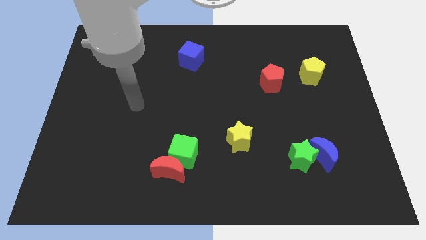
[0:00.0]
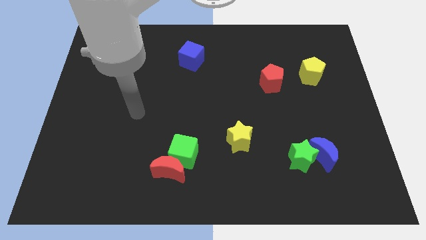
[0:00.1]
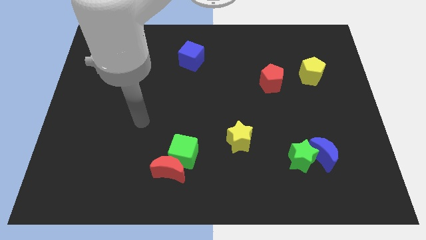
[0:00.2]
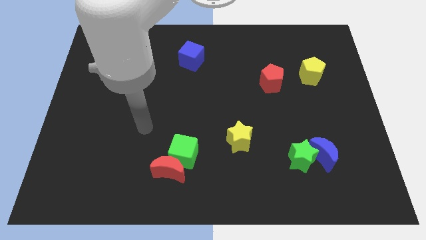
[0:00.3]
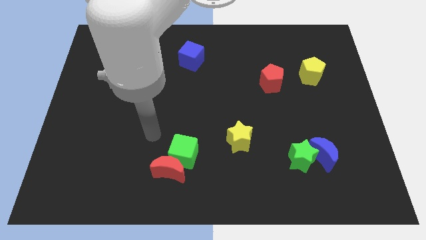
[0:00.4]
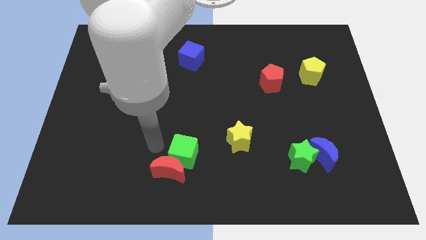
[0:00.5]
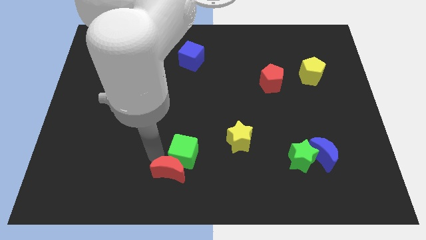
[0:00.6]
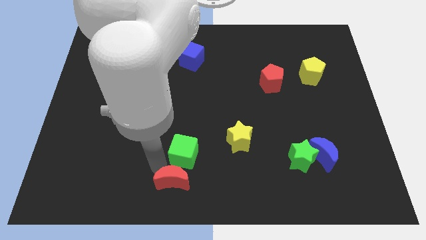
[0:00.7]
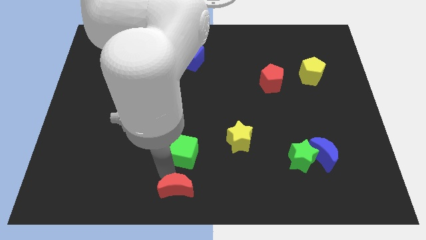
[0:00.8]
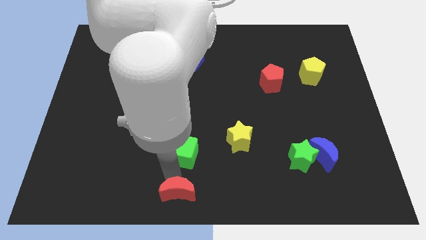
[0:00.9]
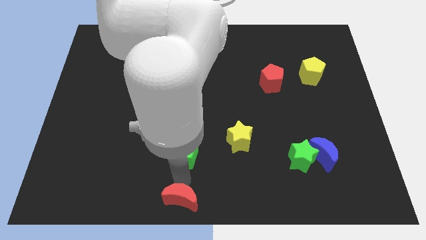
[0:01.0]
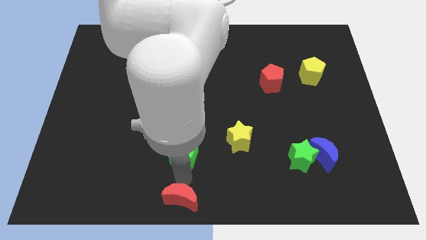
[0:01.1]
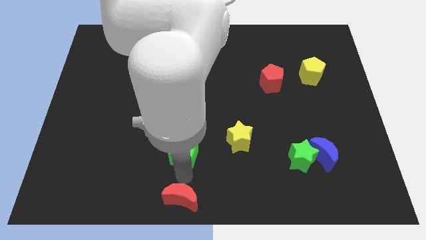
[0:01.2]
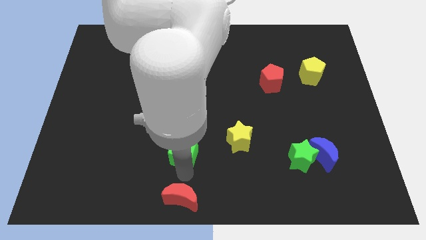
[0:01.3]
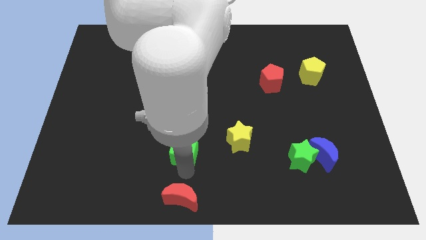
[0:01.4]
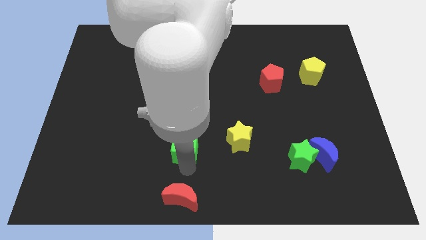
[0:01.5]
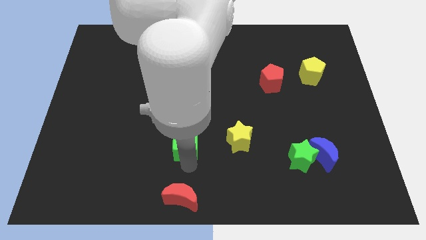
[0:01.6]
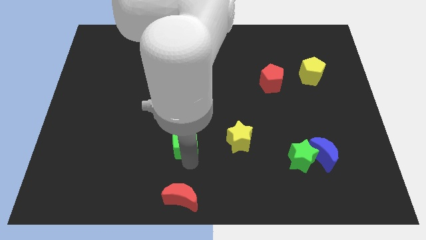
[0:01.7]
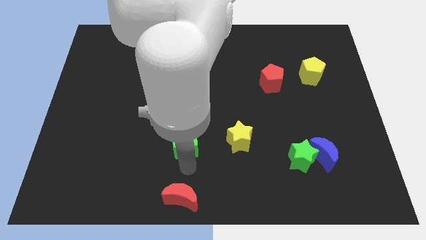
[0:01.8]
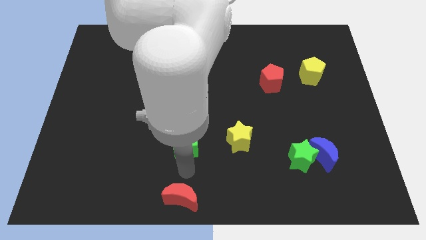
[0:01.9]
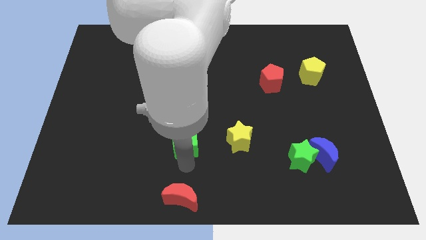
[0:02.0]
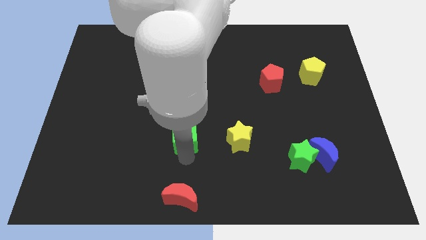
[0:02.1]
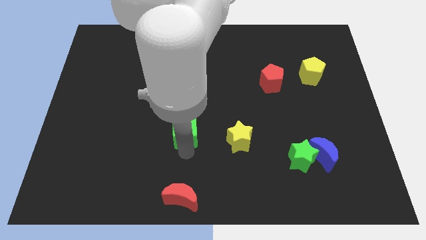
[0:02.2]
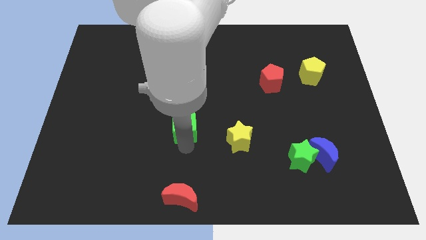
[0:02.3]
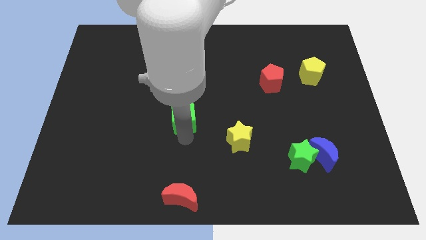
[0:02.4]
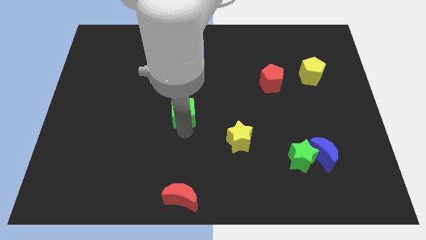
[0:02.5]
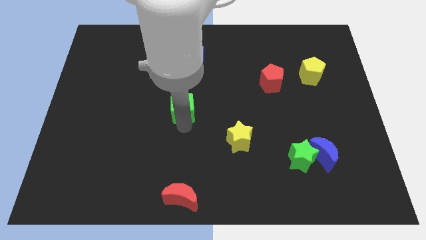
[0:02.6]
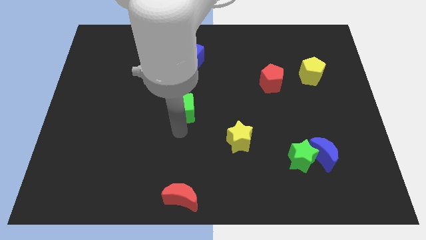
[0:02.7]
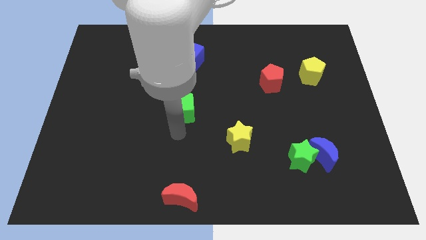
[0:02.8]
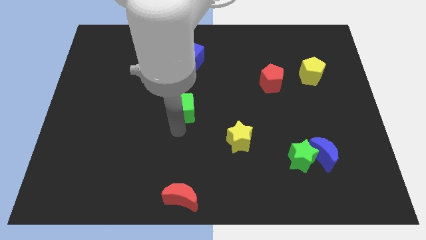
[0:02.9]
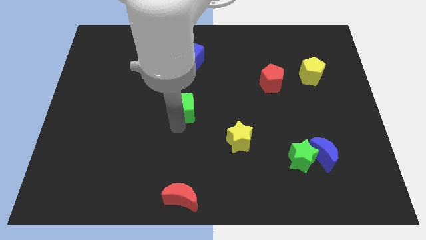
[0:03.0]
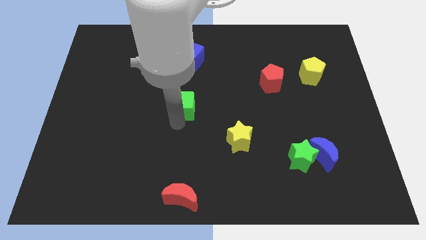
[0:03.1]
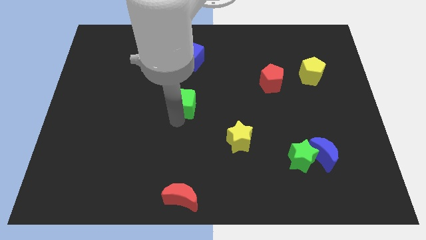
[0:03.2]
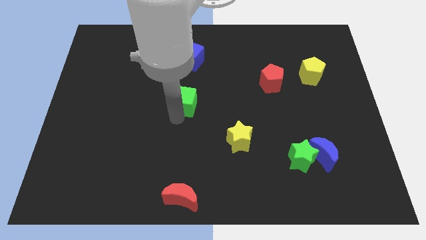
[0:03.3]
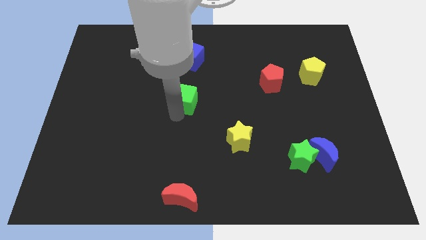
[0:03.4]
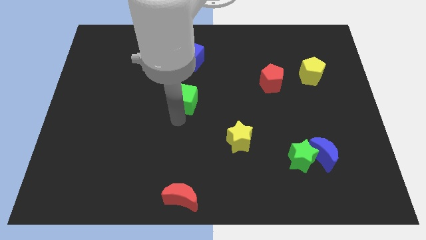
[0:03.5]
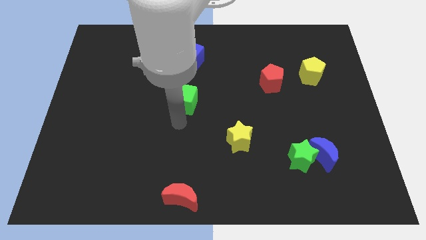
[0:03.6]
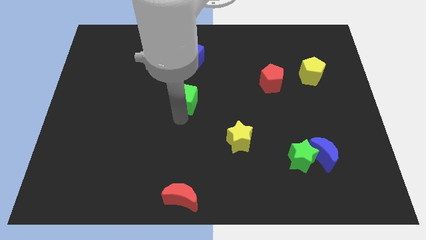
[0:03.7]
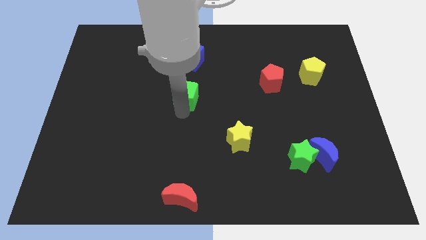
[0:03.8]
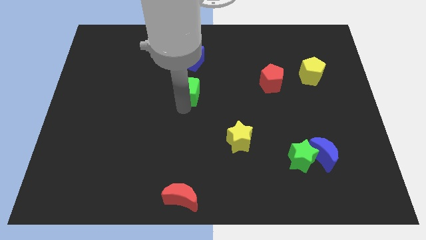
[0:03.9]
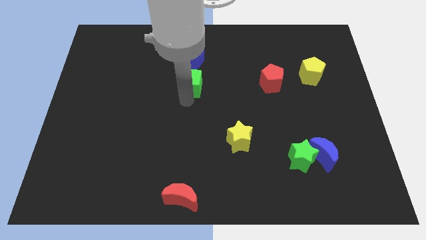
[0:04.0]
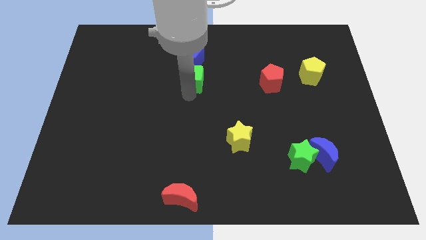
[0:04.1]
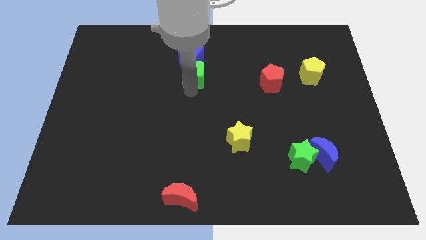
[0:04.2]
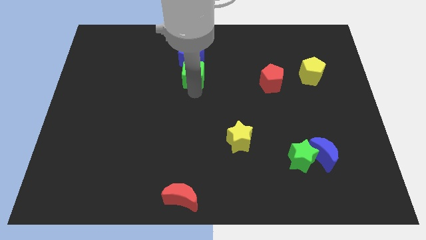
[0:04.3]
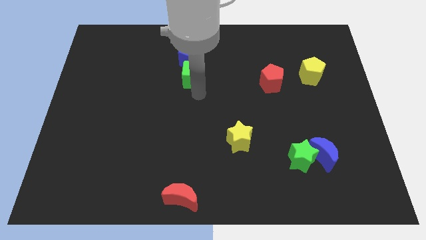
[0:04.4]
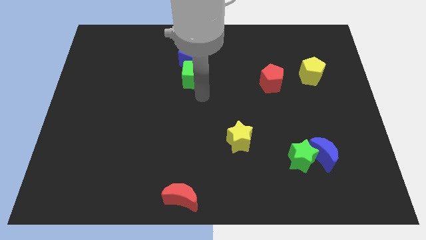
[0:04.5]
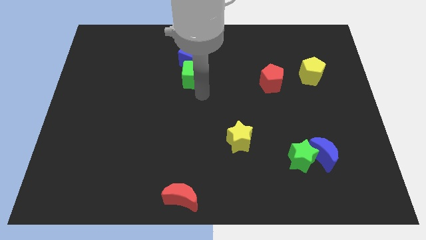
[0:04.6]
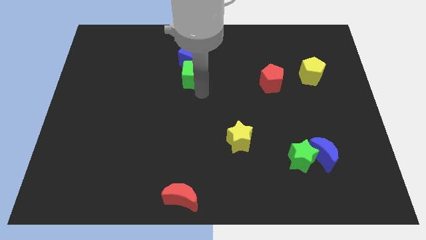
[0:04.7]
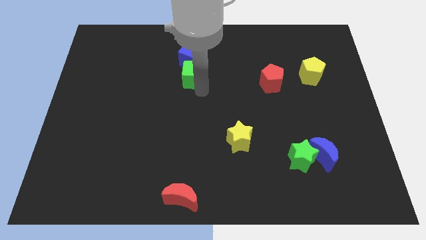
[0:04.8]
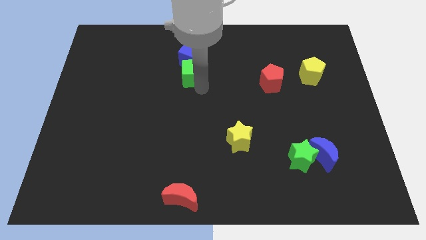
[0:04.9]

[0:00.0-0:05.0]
put the green cube close to the blue cube

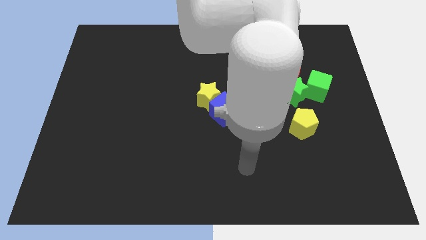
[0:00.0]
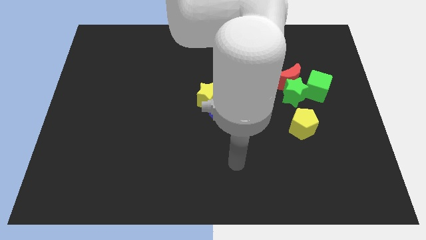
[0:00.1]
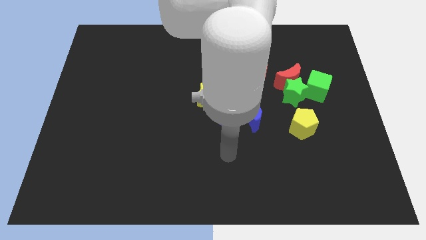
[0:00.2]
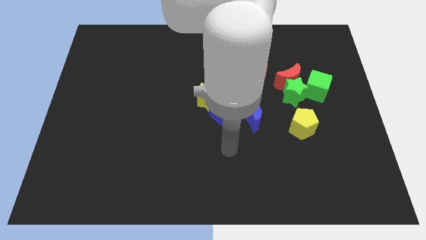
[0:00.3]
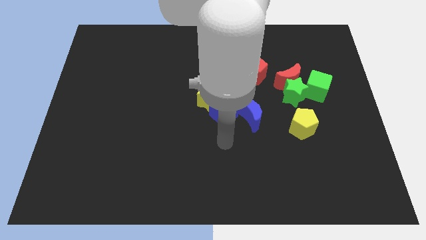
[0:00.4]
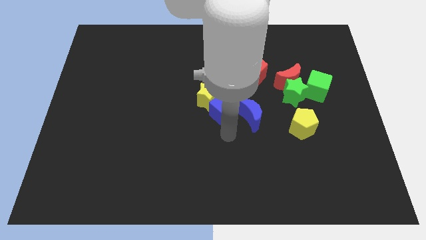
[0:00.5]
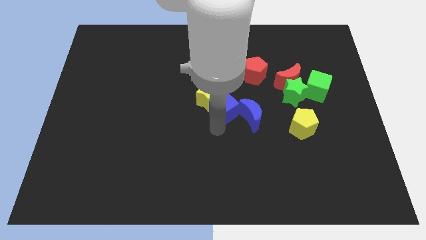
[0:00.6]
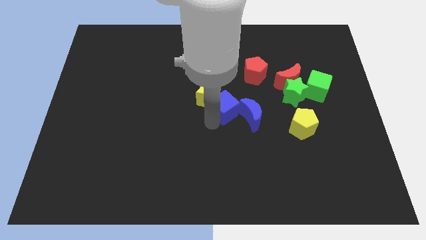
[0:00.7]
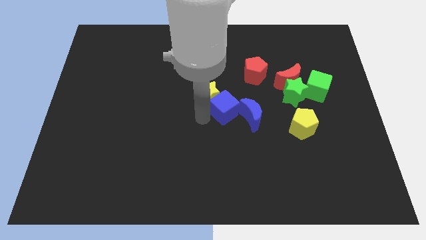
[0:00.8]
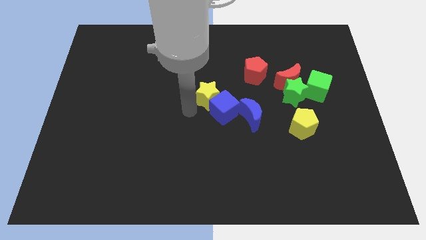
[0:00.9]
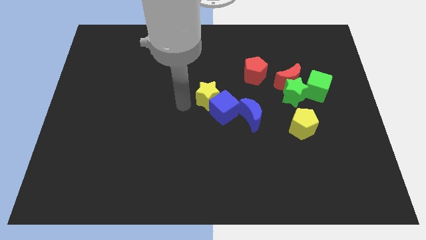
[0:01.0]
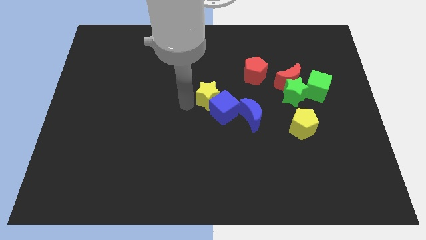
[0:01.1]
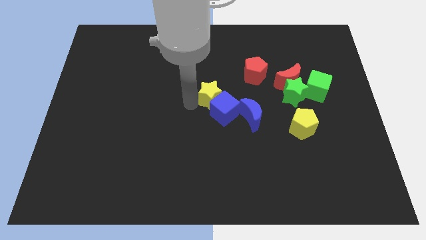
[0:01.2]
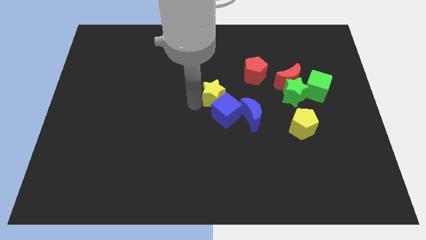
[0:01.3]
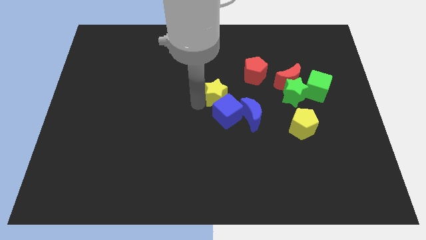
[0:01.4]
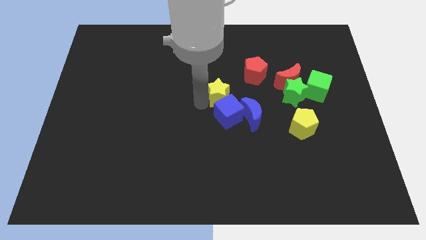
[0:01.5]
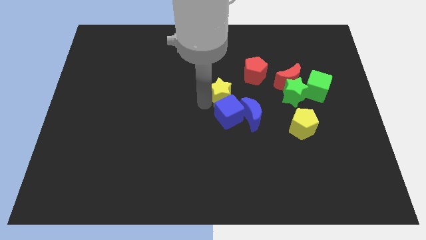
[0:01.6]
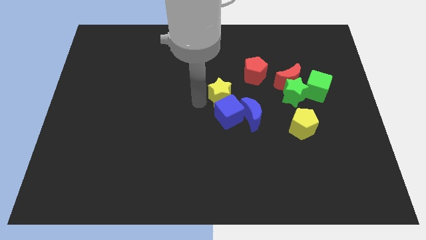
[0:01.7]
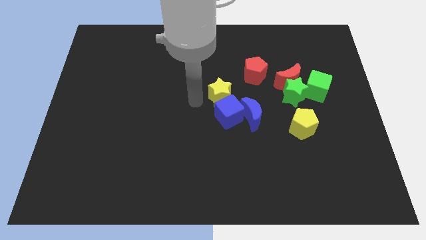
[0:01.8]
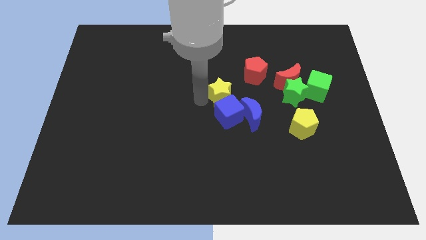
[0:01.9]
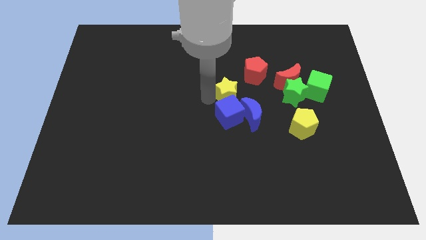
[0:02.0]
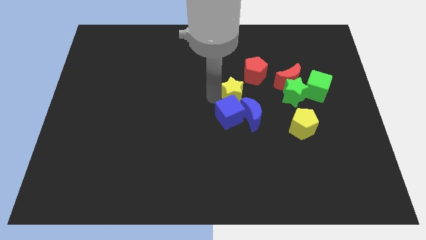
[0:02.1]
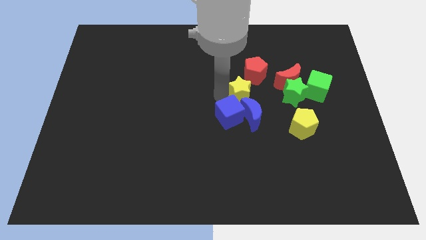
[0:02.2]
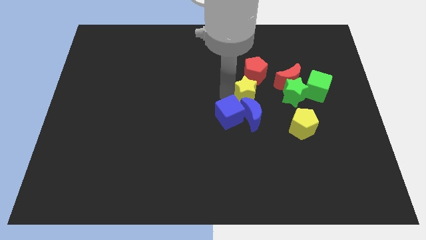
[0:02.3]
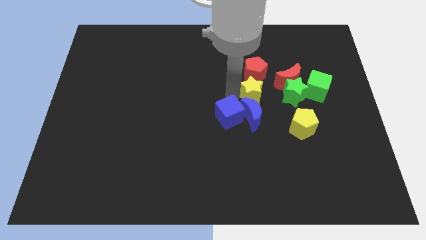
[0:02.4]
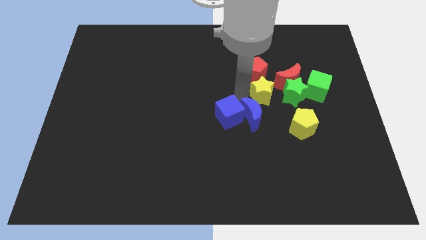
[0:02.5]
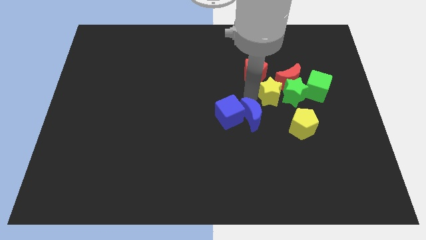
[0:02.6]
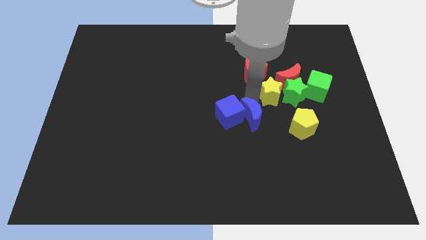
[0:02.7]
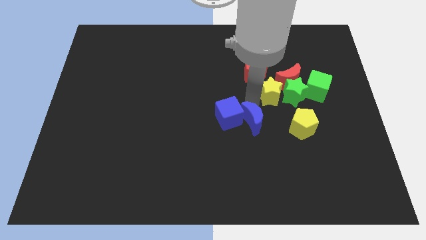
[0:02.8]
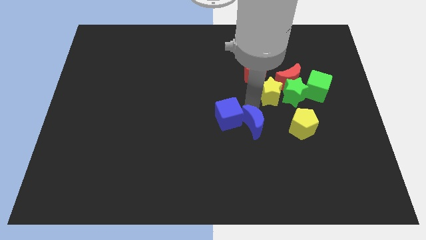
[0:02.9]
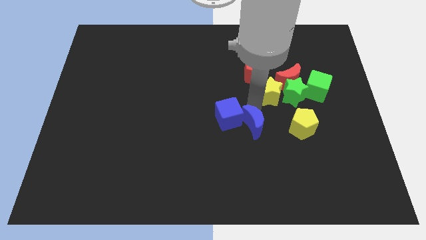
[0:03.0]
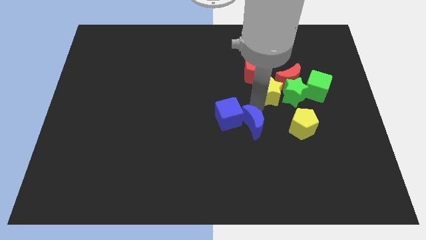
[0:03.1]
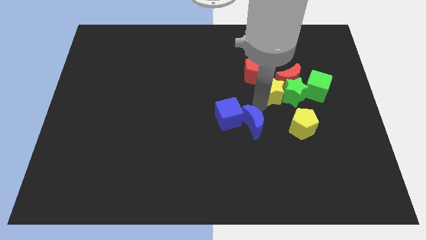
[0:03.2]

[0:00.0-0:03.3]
move the yellow star close to the red moon
